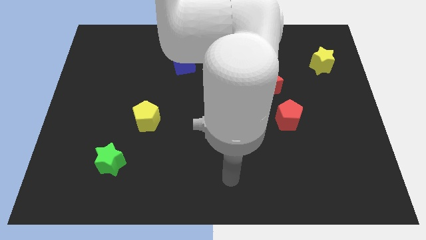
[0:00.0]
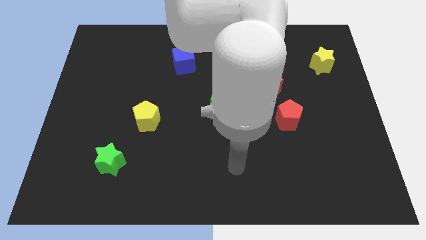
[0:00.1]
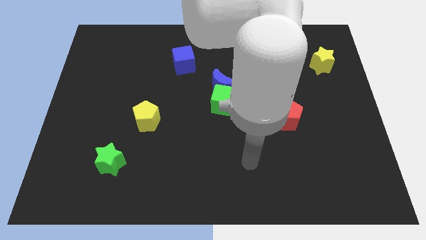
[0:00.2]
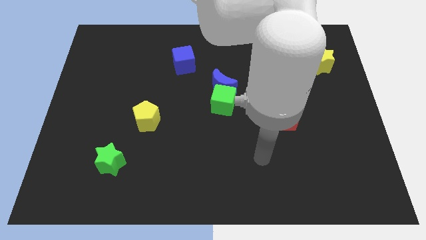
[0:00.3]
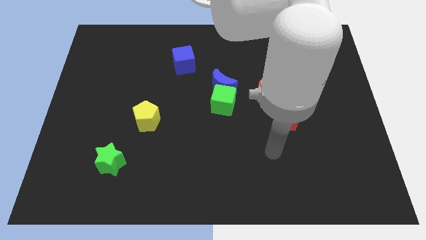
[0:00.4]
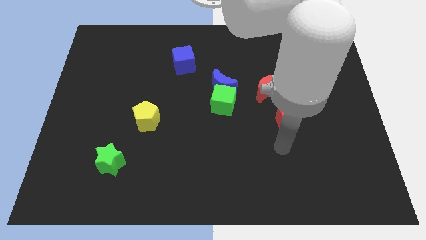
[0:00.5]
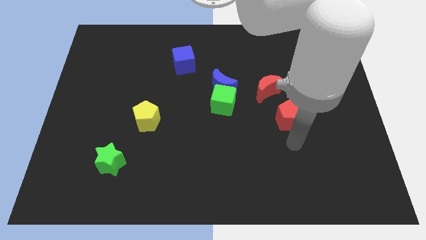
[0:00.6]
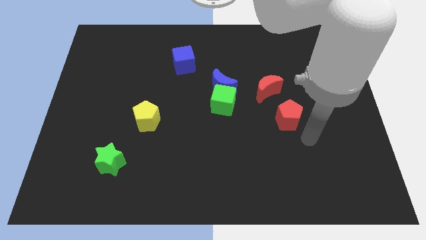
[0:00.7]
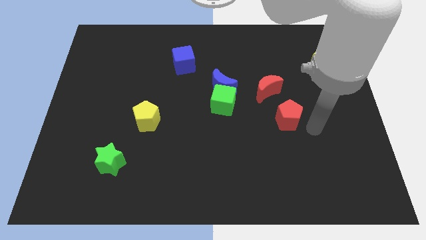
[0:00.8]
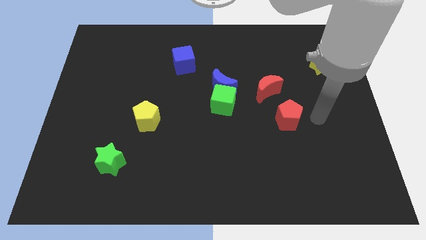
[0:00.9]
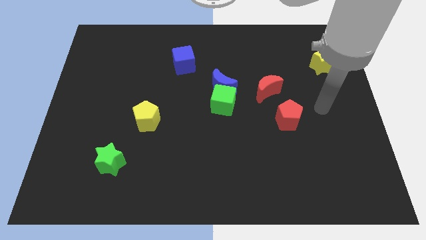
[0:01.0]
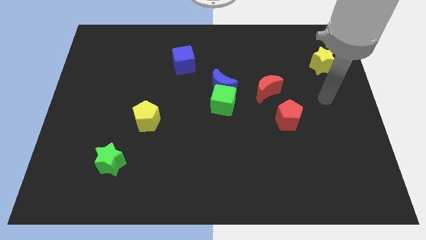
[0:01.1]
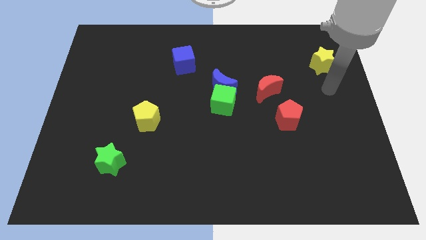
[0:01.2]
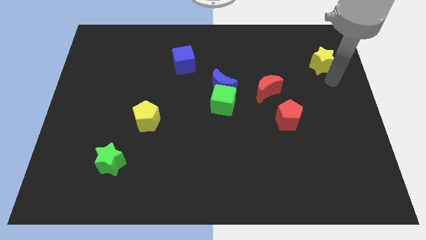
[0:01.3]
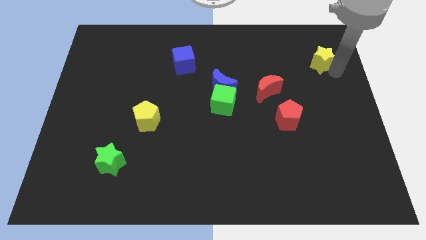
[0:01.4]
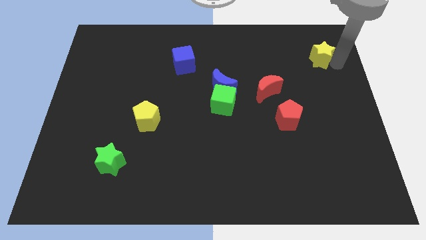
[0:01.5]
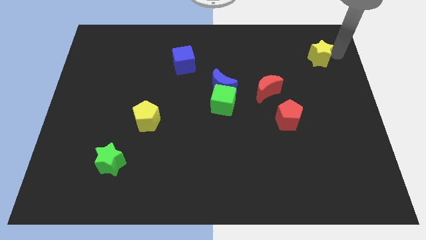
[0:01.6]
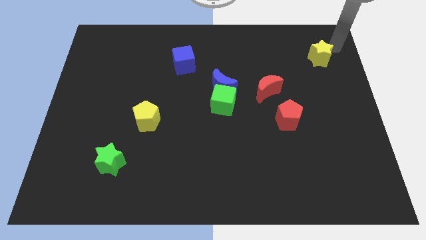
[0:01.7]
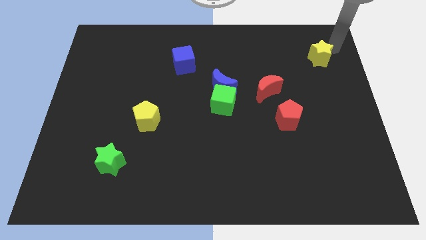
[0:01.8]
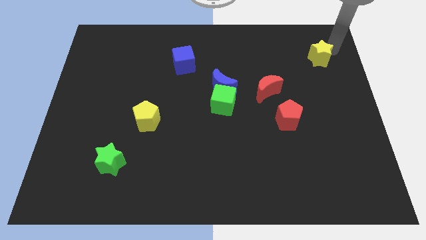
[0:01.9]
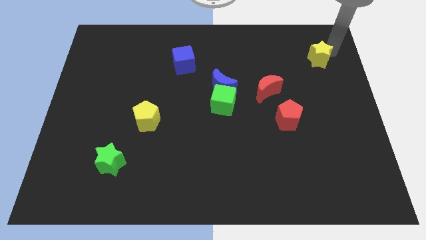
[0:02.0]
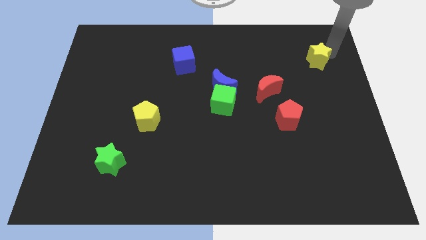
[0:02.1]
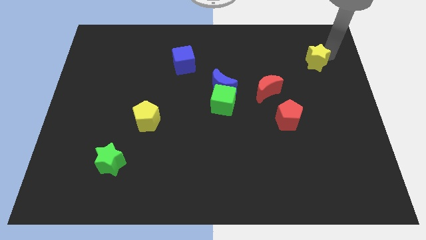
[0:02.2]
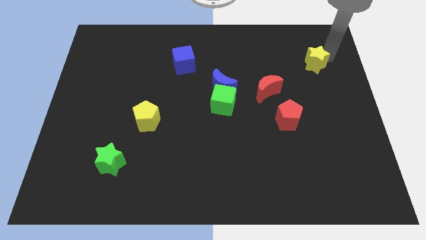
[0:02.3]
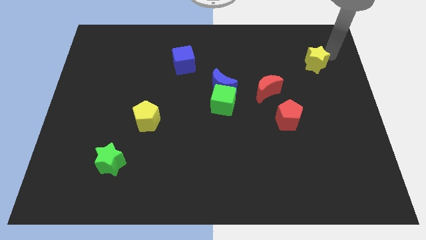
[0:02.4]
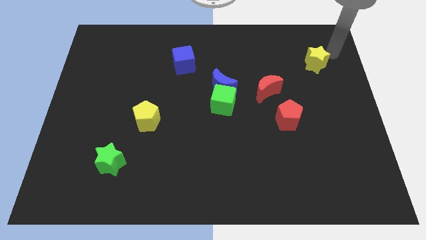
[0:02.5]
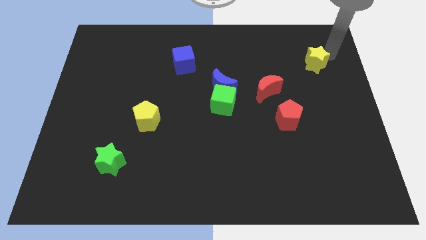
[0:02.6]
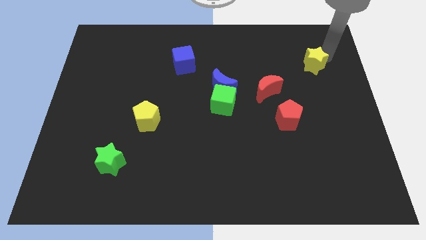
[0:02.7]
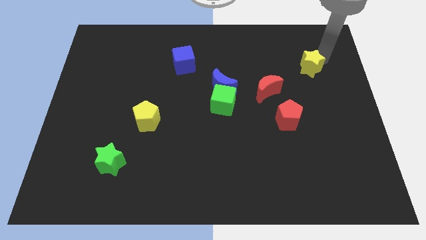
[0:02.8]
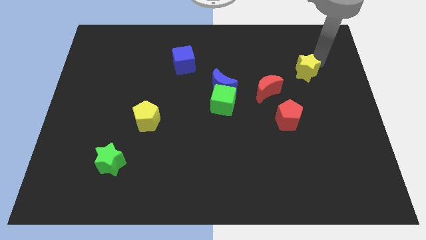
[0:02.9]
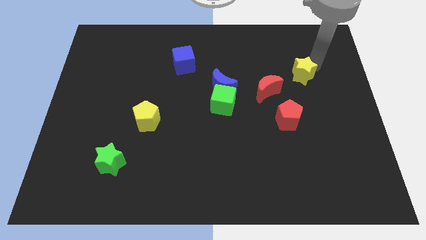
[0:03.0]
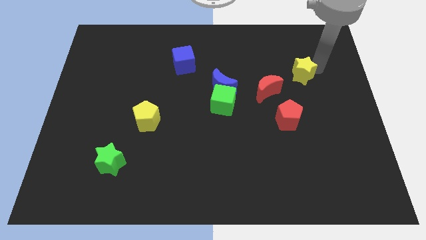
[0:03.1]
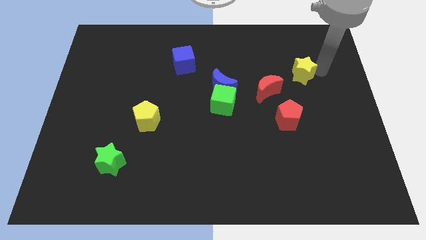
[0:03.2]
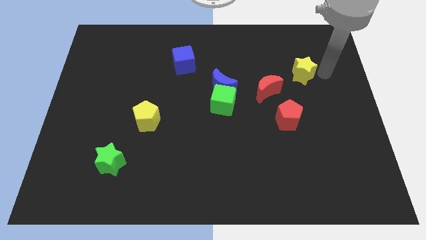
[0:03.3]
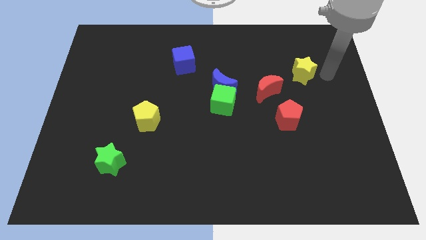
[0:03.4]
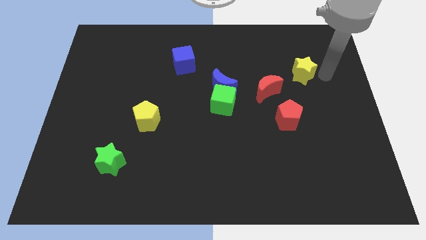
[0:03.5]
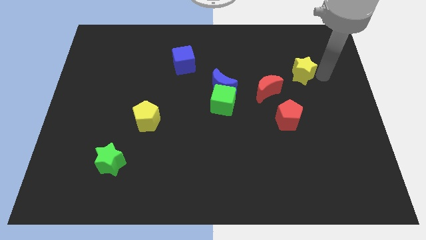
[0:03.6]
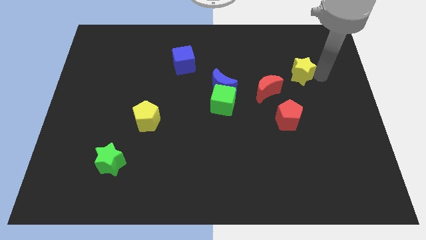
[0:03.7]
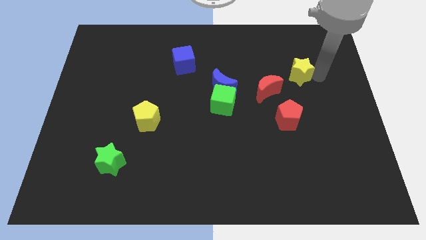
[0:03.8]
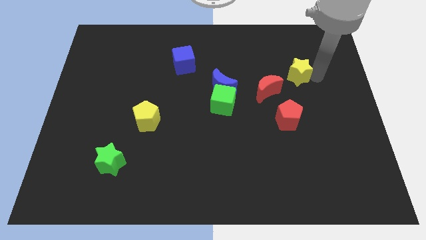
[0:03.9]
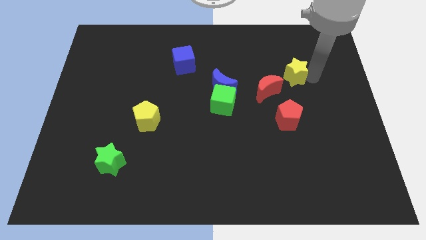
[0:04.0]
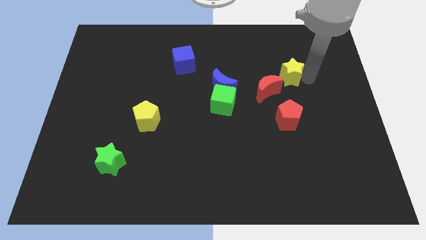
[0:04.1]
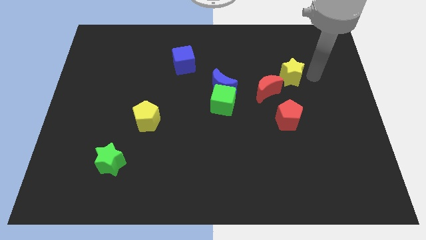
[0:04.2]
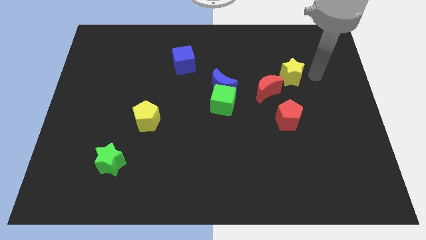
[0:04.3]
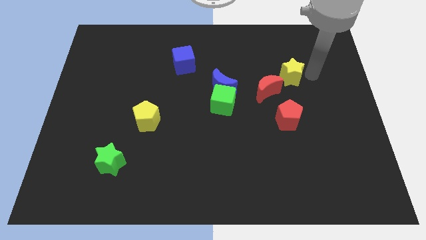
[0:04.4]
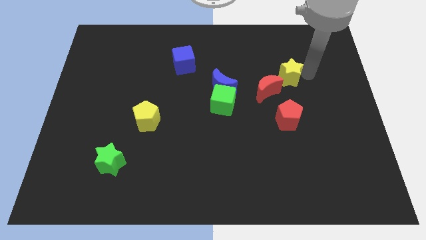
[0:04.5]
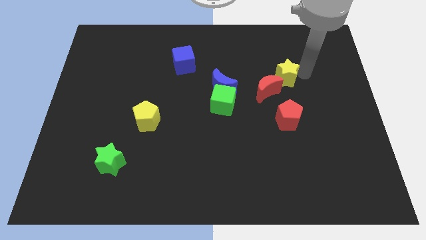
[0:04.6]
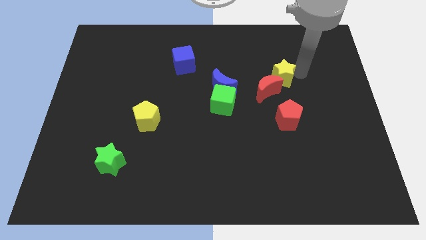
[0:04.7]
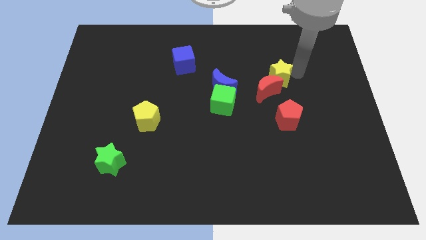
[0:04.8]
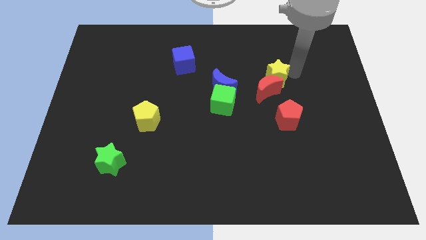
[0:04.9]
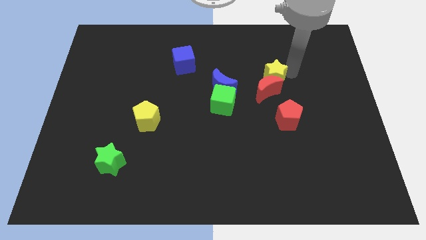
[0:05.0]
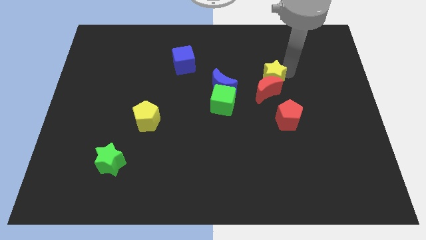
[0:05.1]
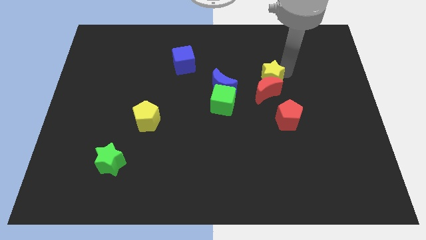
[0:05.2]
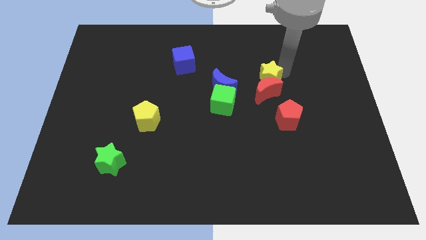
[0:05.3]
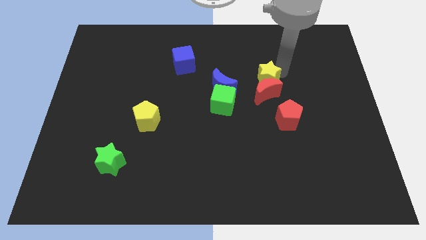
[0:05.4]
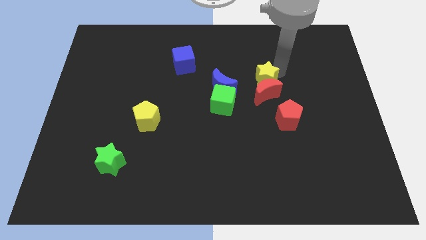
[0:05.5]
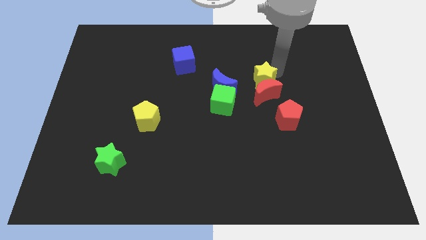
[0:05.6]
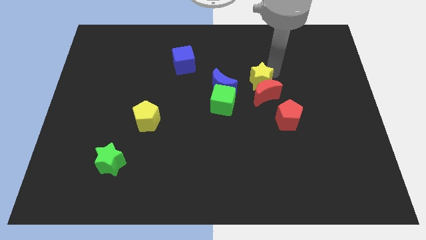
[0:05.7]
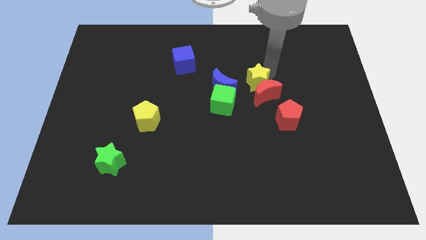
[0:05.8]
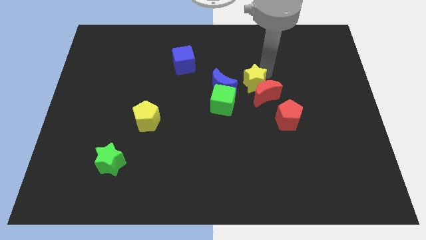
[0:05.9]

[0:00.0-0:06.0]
put the yellow star left of the red moon

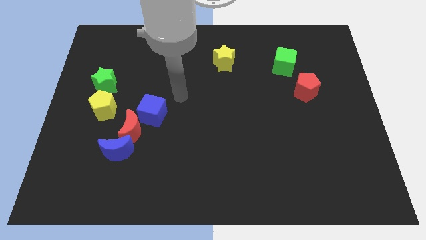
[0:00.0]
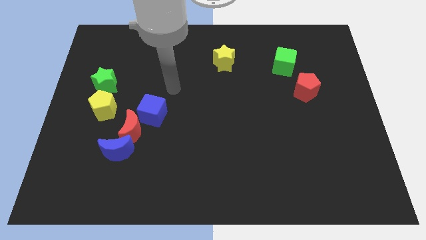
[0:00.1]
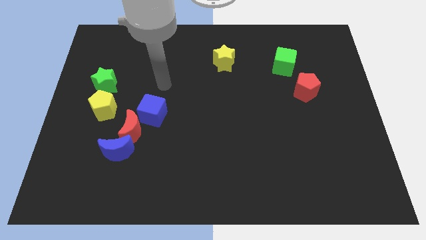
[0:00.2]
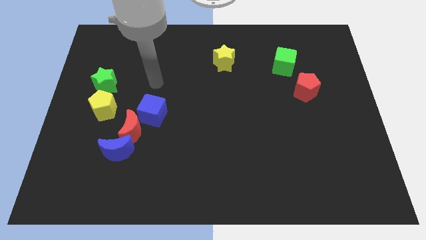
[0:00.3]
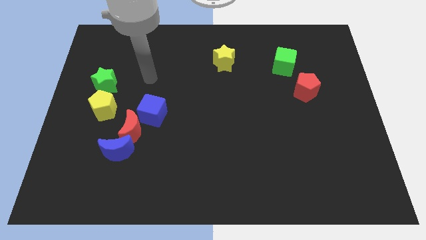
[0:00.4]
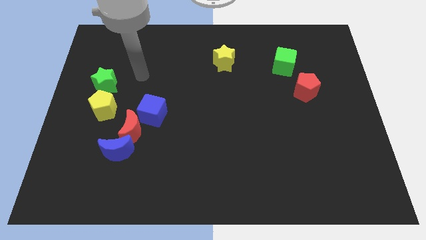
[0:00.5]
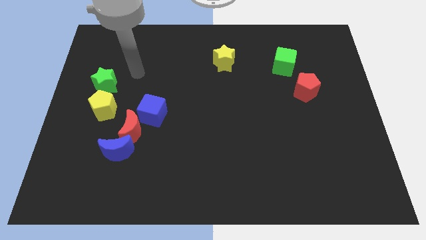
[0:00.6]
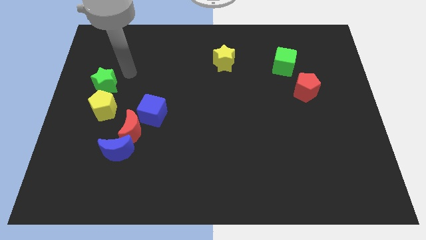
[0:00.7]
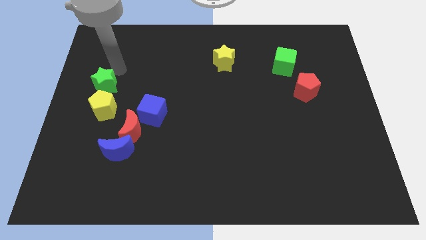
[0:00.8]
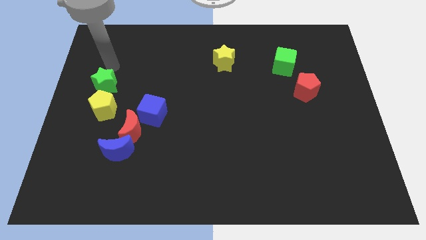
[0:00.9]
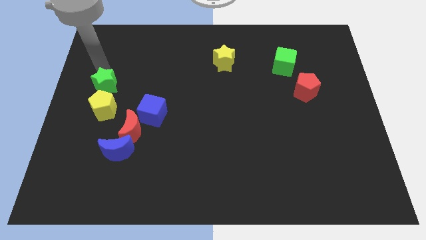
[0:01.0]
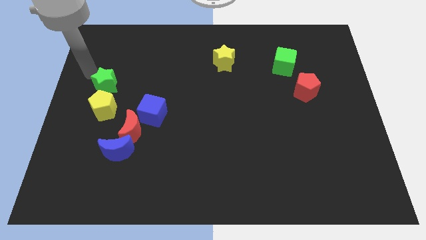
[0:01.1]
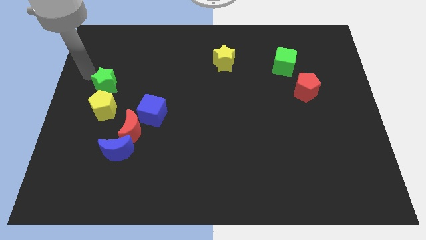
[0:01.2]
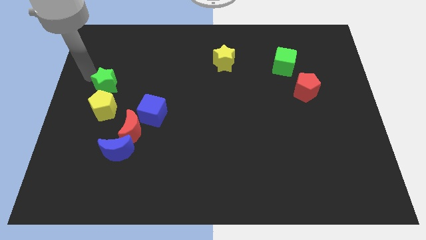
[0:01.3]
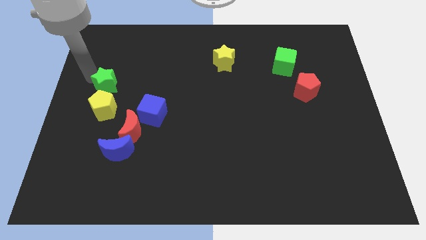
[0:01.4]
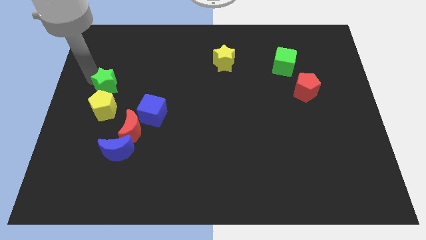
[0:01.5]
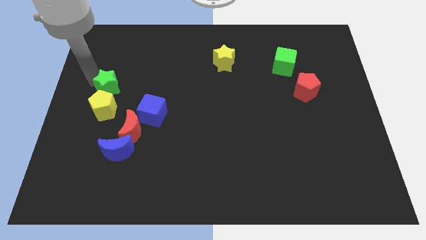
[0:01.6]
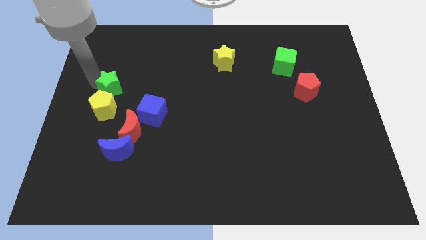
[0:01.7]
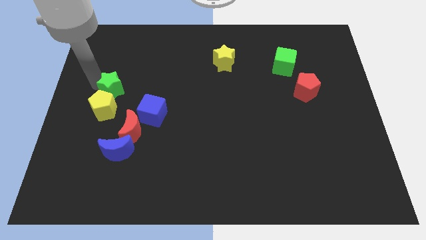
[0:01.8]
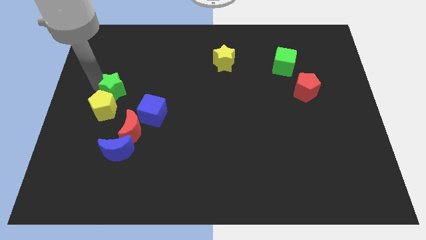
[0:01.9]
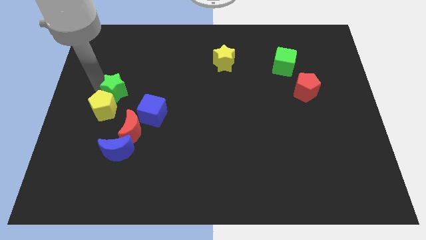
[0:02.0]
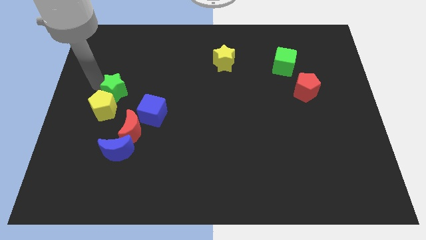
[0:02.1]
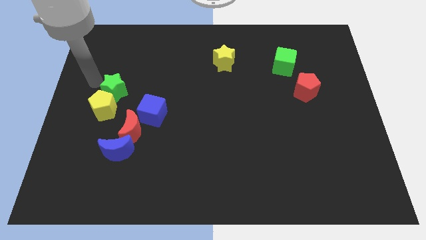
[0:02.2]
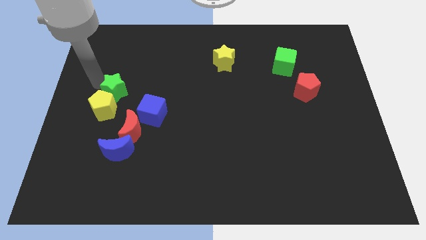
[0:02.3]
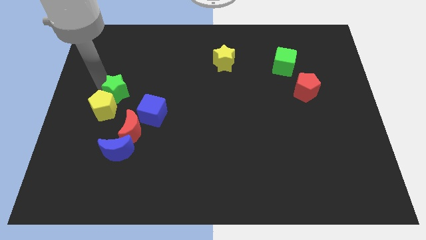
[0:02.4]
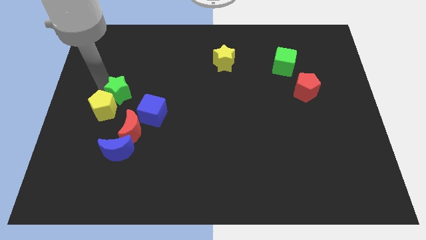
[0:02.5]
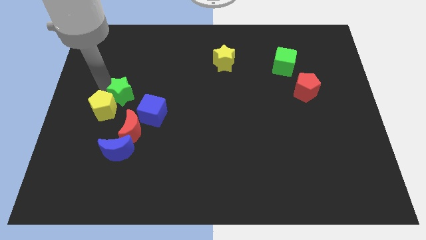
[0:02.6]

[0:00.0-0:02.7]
push the green star just right of the yellow pentagon
